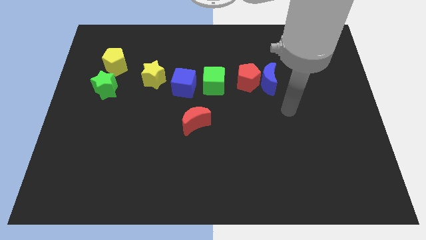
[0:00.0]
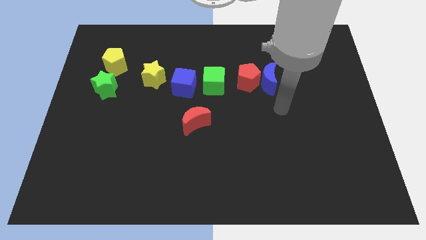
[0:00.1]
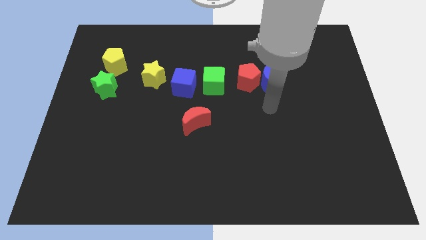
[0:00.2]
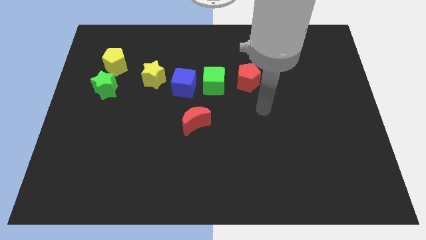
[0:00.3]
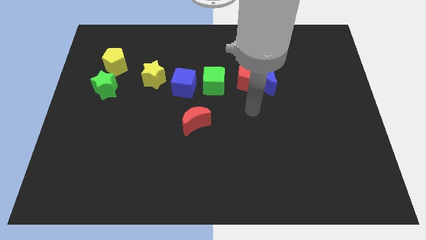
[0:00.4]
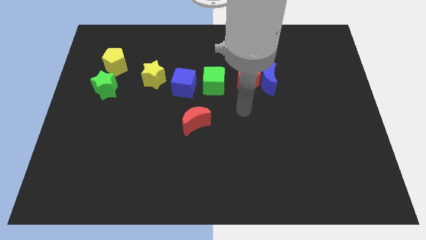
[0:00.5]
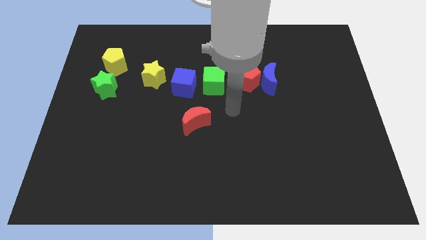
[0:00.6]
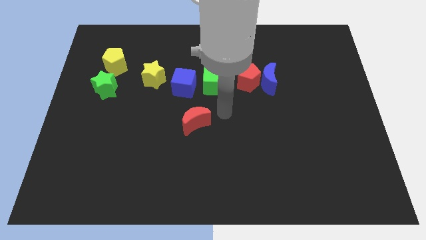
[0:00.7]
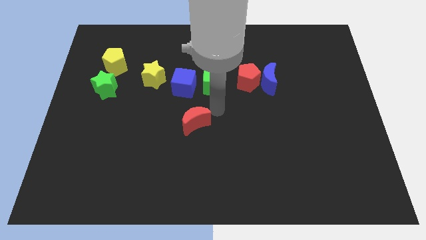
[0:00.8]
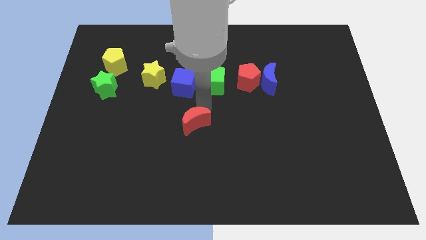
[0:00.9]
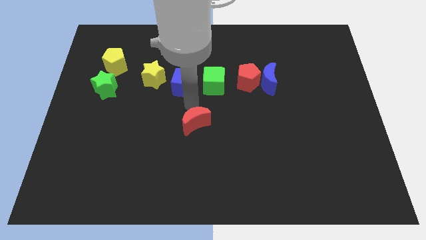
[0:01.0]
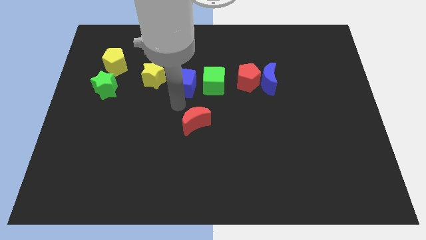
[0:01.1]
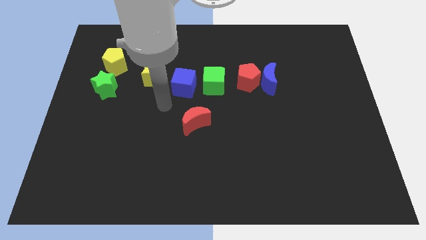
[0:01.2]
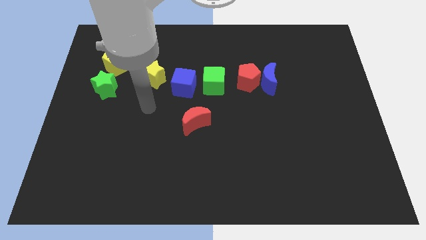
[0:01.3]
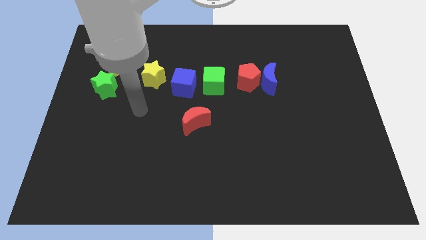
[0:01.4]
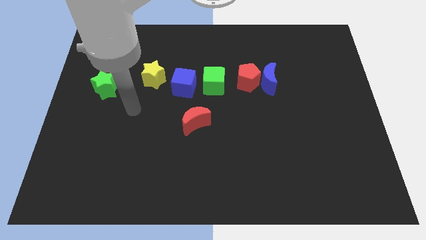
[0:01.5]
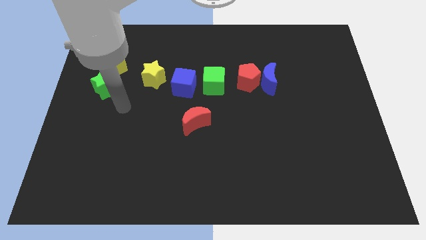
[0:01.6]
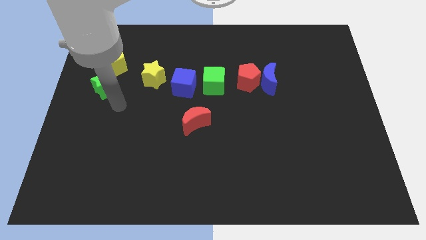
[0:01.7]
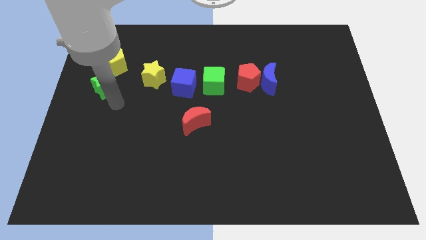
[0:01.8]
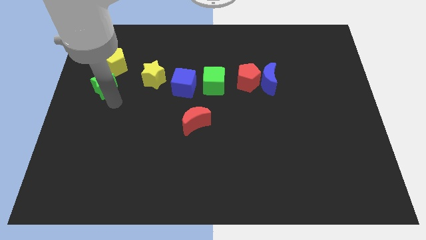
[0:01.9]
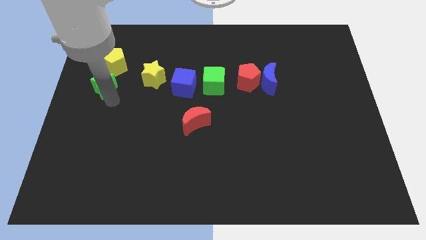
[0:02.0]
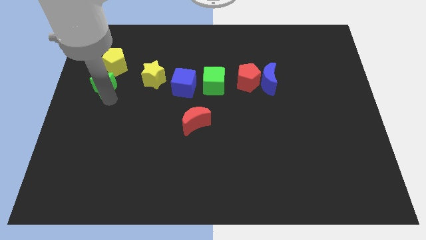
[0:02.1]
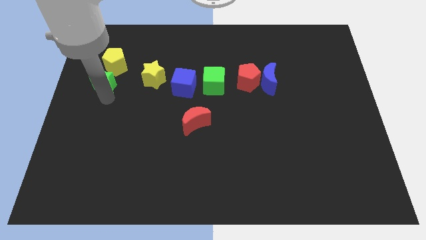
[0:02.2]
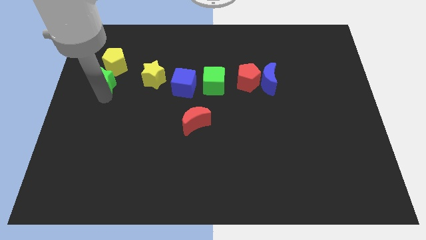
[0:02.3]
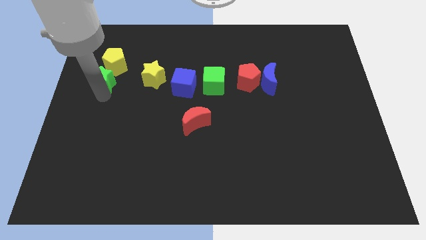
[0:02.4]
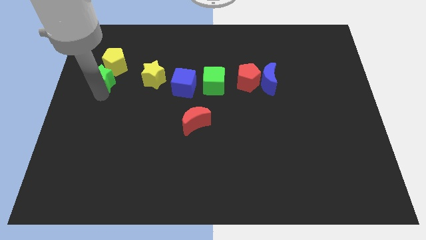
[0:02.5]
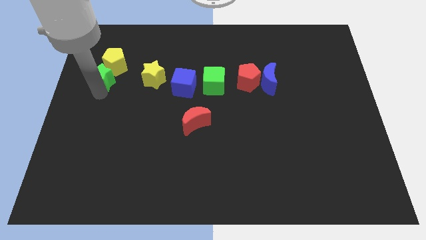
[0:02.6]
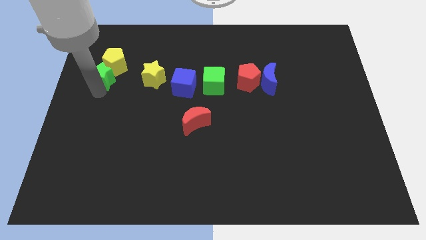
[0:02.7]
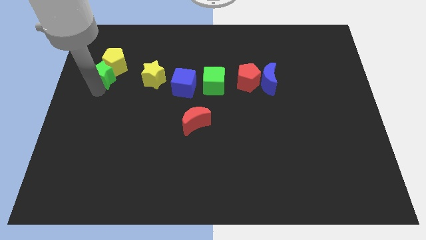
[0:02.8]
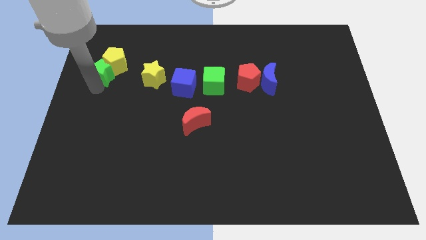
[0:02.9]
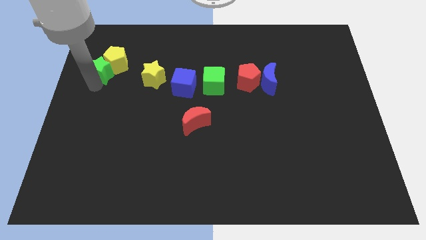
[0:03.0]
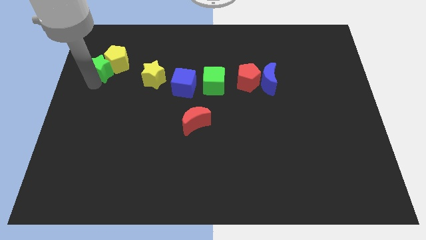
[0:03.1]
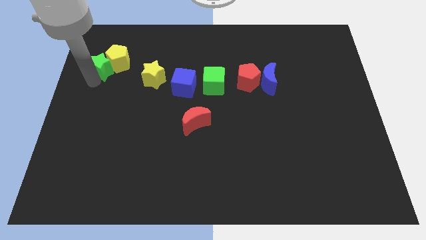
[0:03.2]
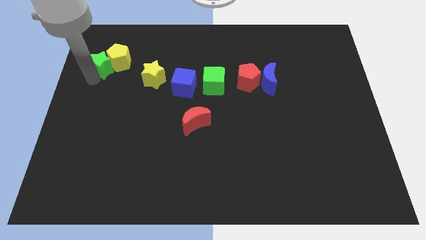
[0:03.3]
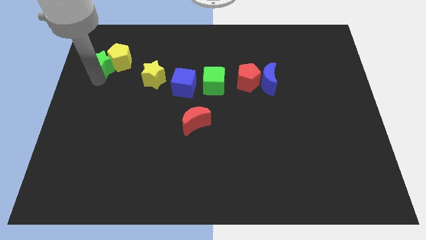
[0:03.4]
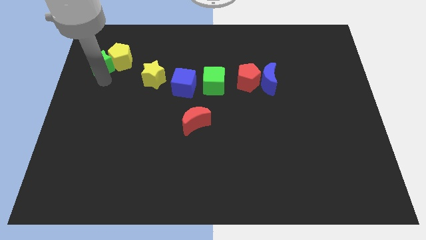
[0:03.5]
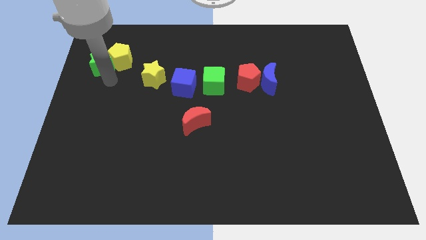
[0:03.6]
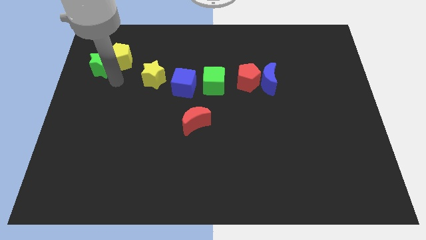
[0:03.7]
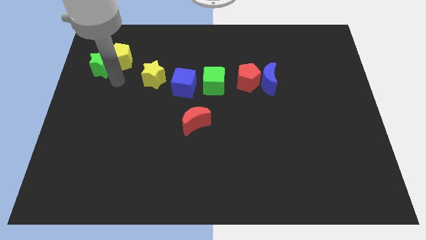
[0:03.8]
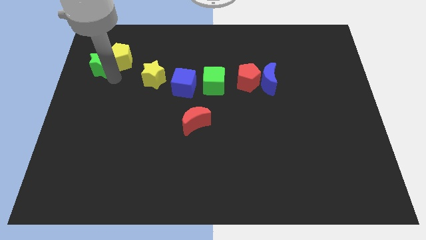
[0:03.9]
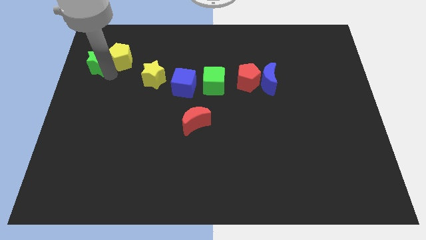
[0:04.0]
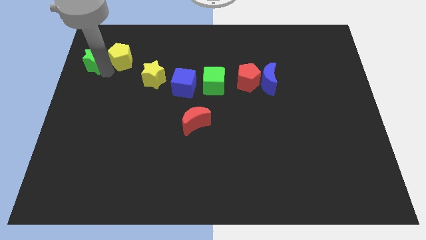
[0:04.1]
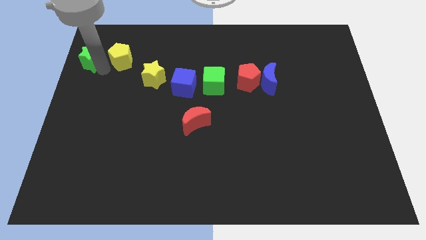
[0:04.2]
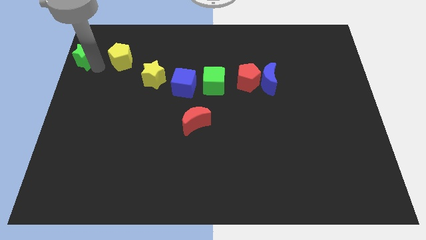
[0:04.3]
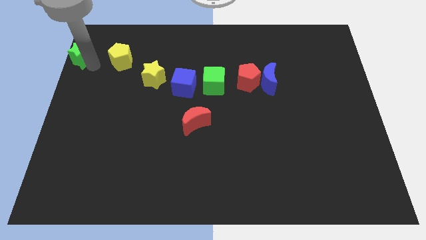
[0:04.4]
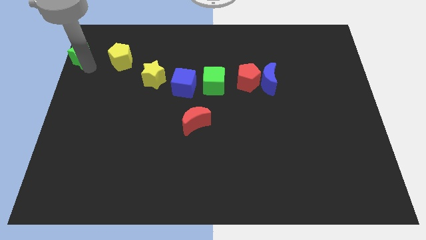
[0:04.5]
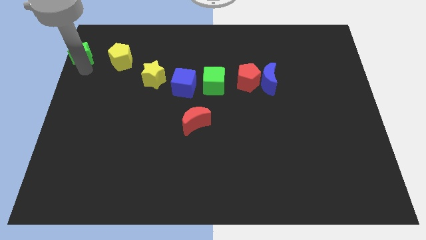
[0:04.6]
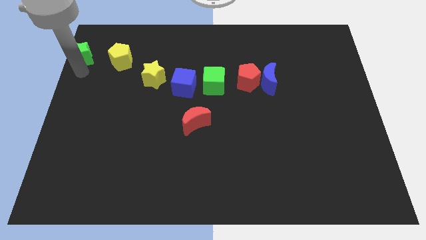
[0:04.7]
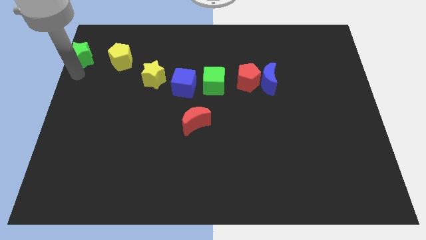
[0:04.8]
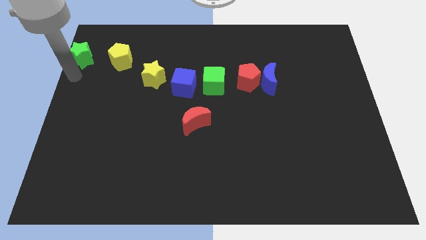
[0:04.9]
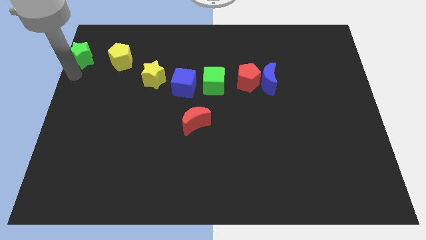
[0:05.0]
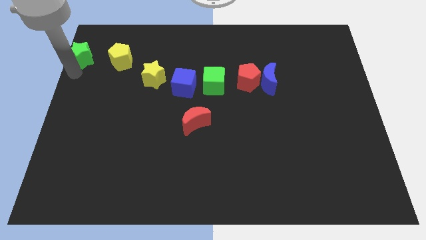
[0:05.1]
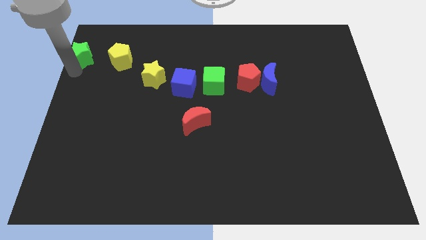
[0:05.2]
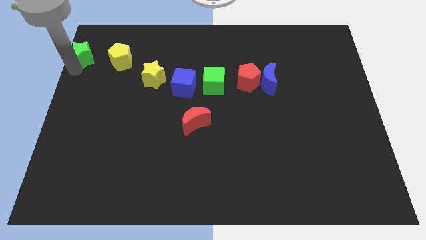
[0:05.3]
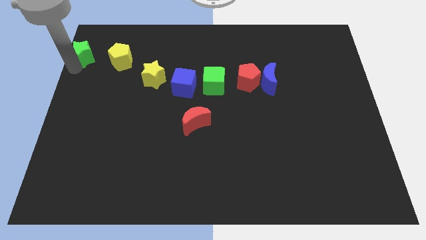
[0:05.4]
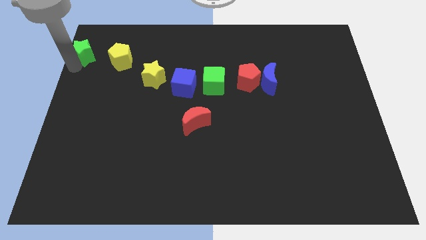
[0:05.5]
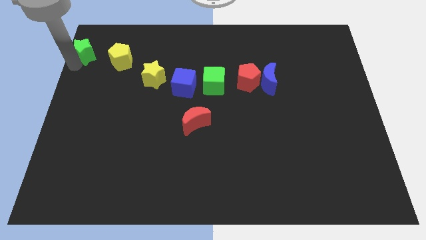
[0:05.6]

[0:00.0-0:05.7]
push the green star to the top left of the board

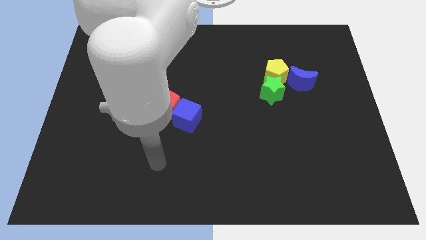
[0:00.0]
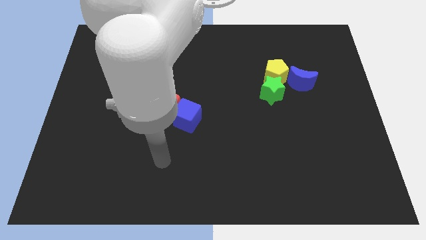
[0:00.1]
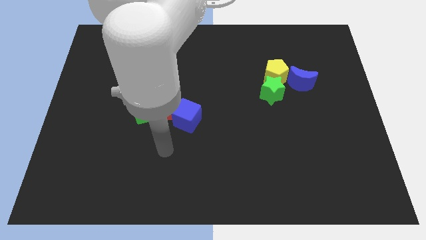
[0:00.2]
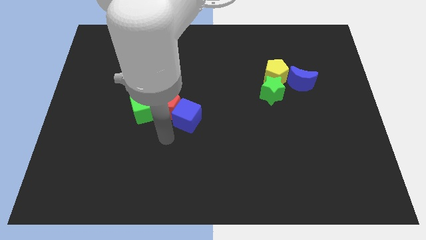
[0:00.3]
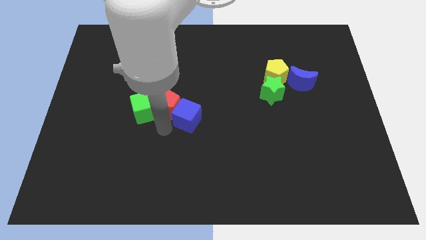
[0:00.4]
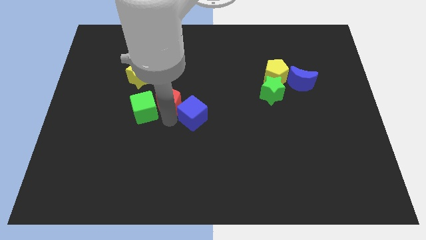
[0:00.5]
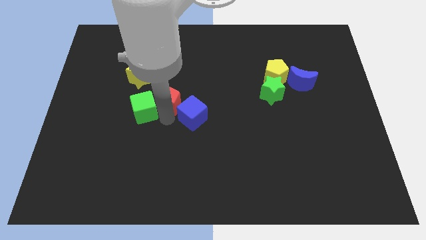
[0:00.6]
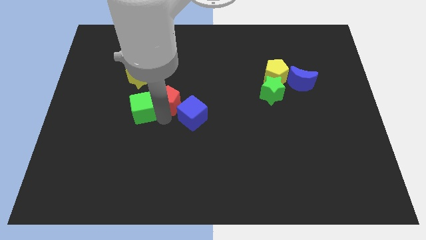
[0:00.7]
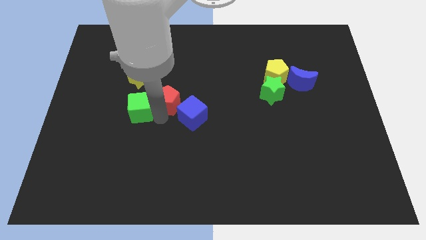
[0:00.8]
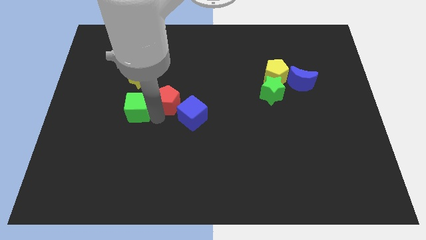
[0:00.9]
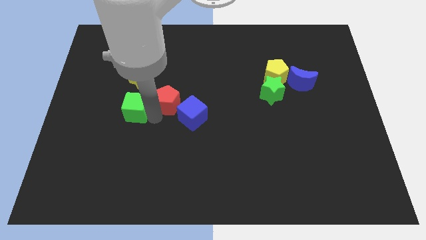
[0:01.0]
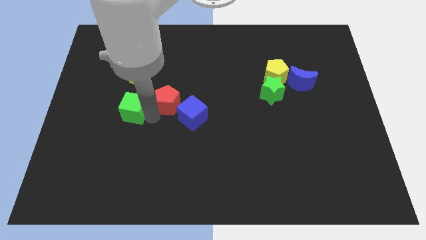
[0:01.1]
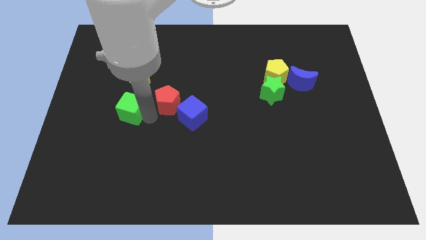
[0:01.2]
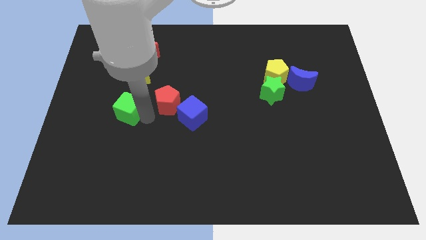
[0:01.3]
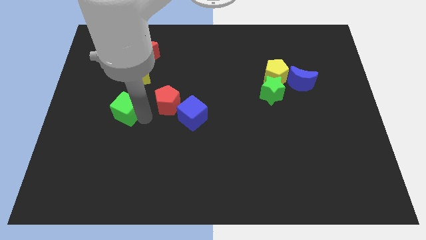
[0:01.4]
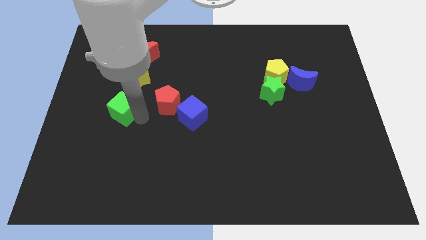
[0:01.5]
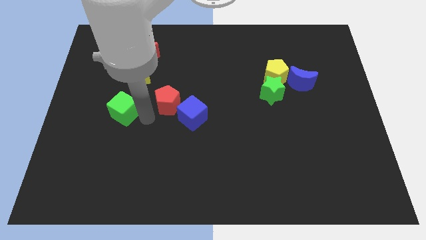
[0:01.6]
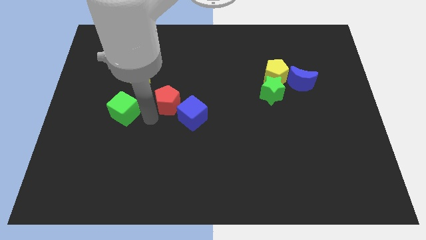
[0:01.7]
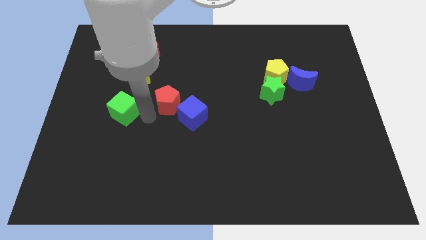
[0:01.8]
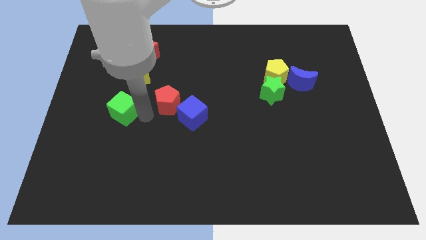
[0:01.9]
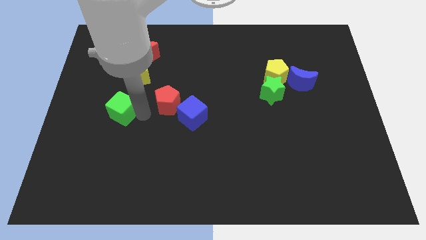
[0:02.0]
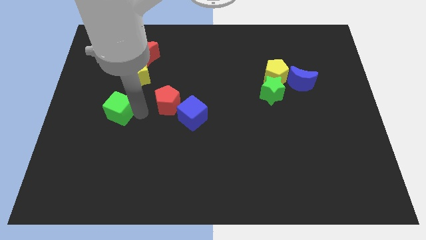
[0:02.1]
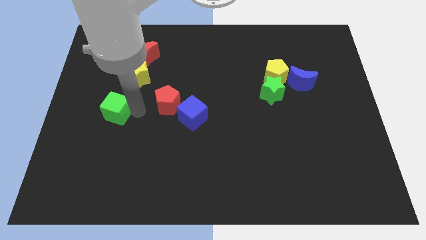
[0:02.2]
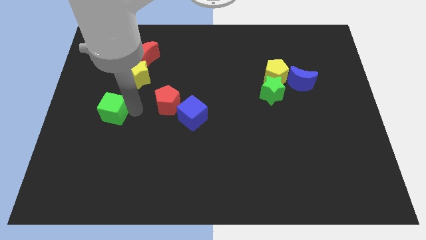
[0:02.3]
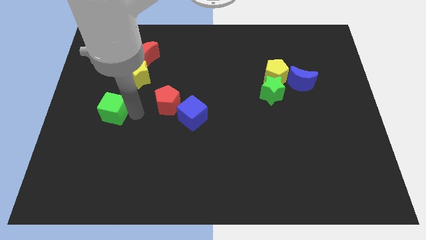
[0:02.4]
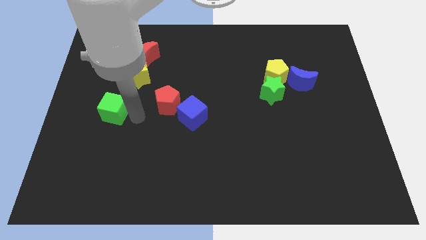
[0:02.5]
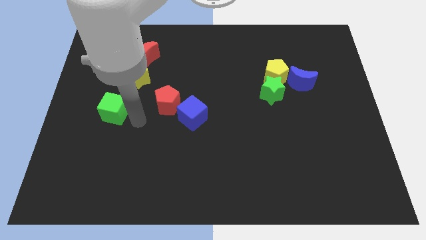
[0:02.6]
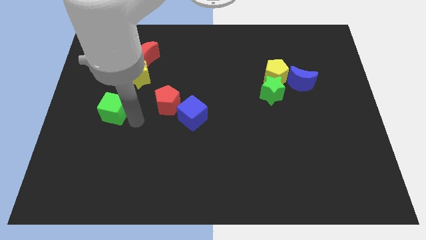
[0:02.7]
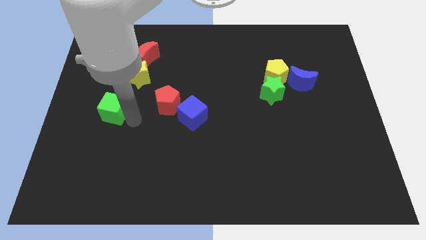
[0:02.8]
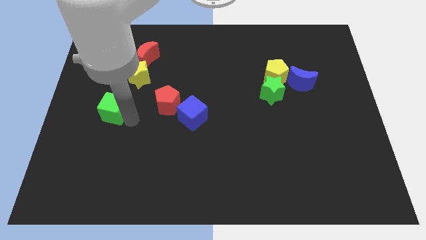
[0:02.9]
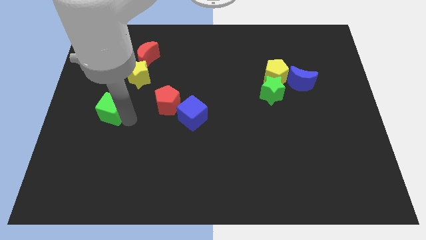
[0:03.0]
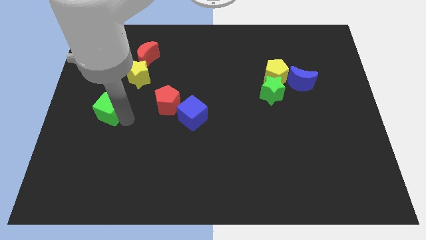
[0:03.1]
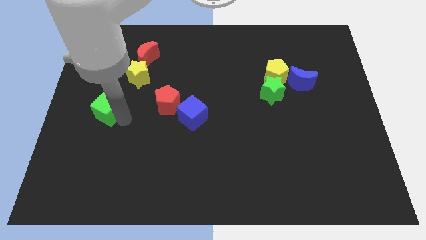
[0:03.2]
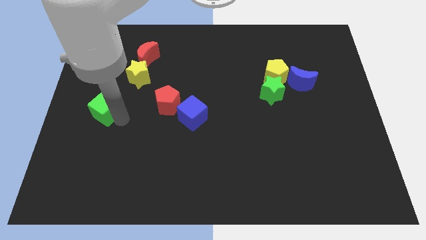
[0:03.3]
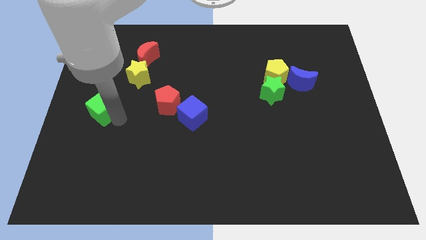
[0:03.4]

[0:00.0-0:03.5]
push the green cube to the left side
